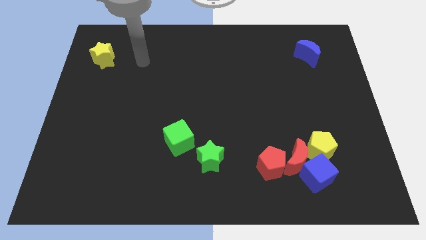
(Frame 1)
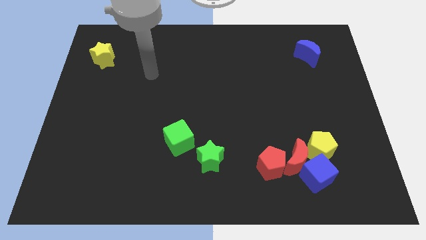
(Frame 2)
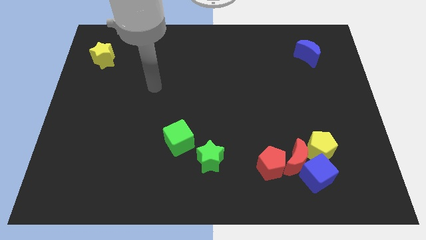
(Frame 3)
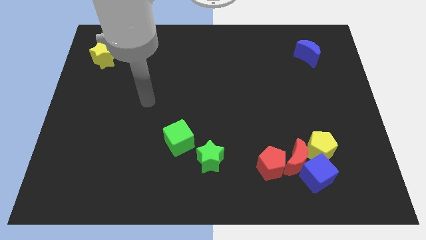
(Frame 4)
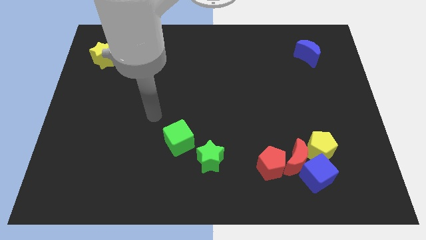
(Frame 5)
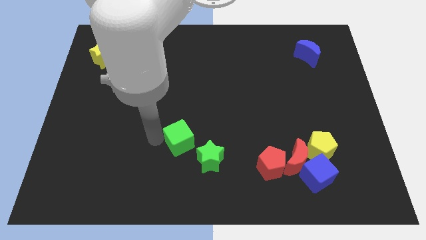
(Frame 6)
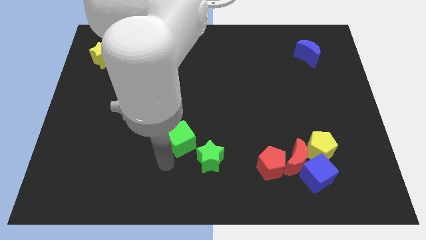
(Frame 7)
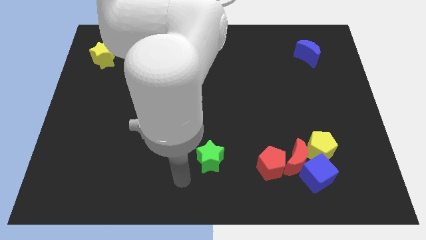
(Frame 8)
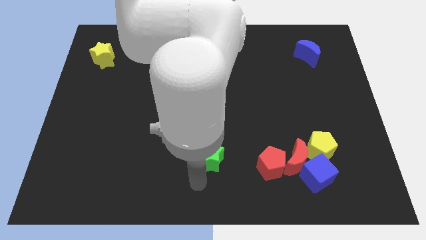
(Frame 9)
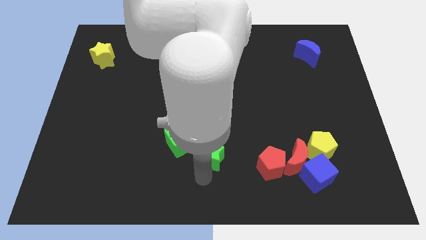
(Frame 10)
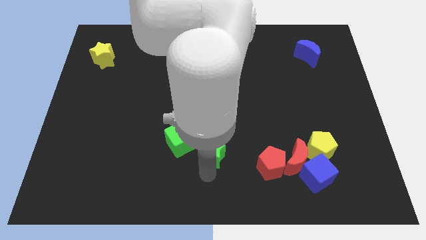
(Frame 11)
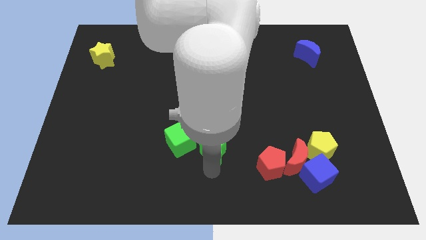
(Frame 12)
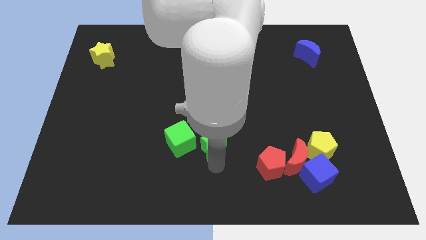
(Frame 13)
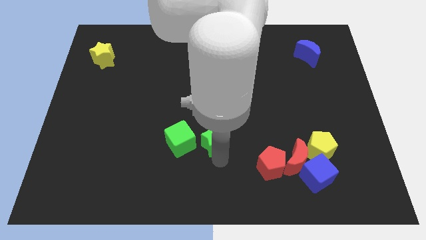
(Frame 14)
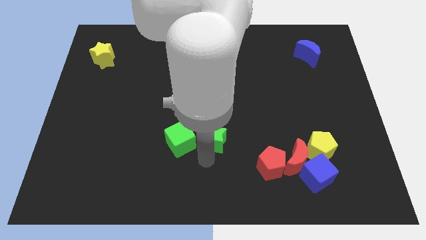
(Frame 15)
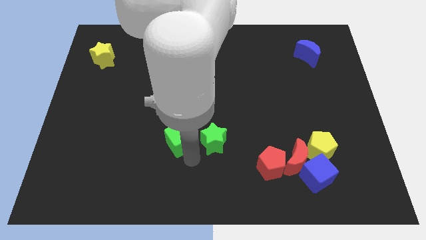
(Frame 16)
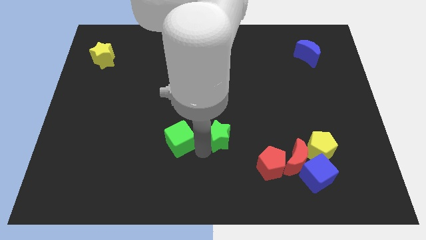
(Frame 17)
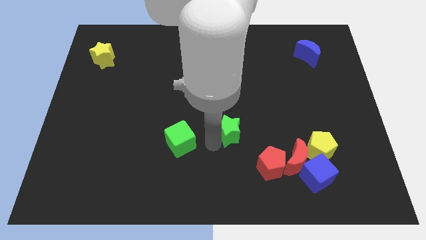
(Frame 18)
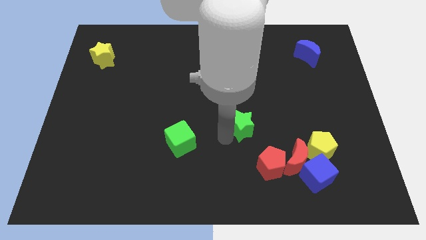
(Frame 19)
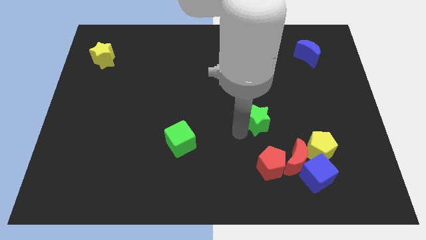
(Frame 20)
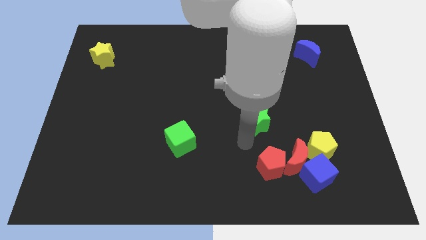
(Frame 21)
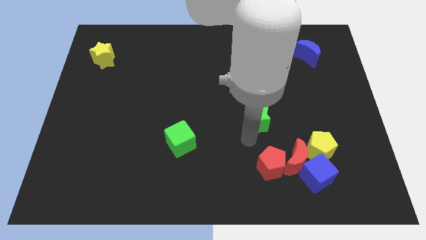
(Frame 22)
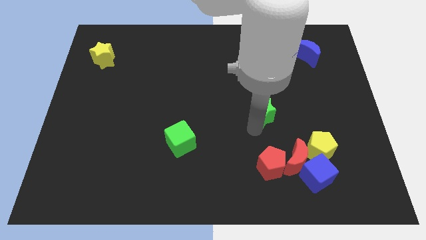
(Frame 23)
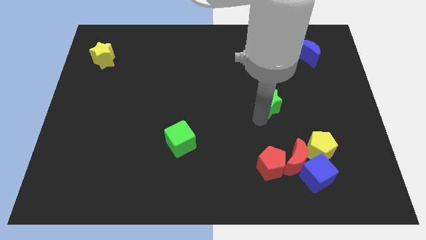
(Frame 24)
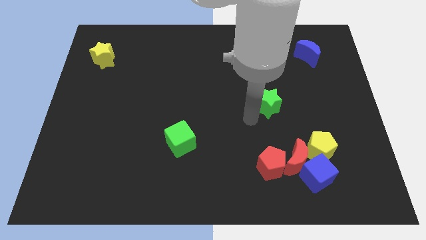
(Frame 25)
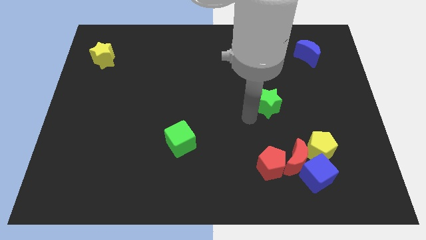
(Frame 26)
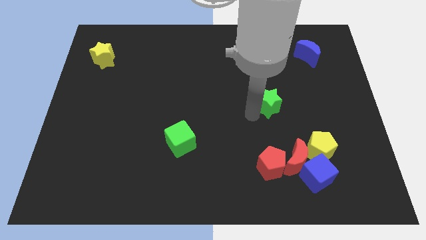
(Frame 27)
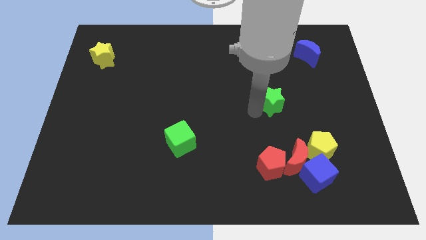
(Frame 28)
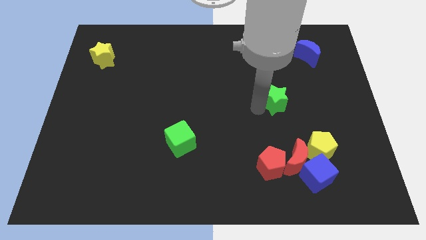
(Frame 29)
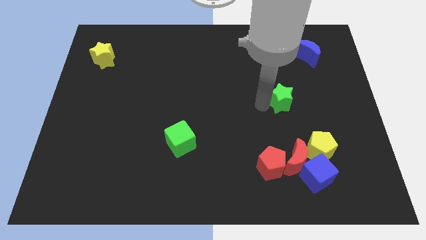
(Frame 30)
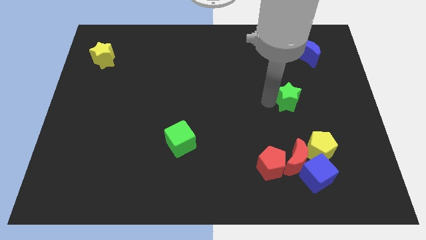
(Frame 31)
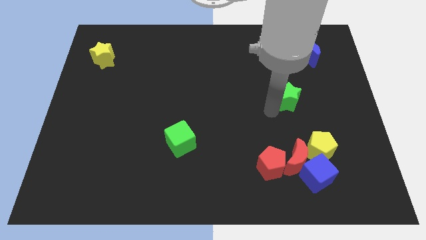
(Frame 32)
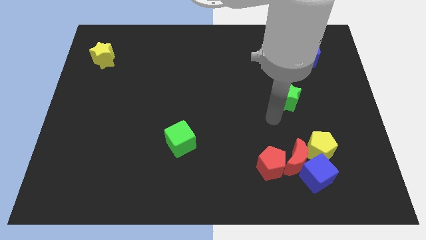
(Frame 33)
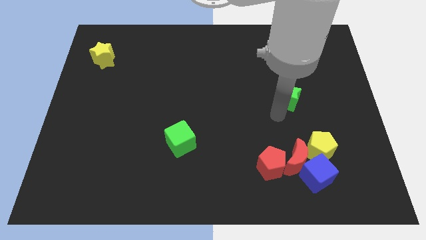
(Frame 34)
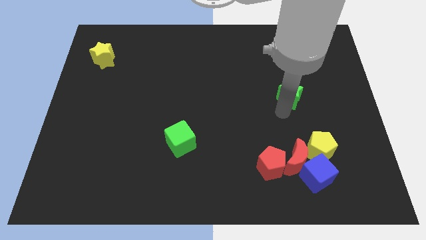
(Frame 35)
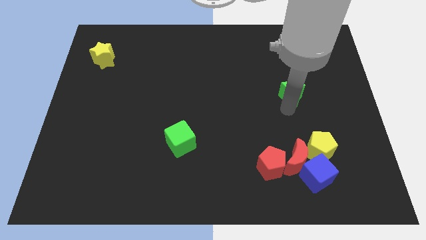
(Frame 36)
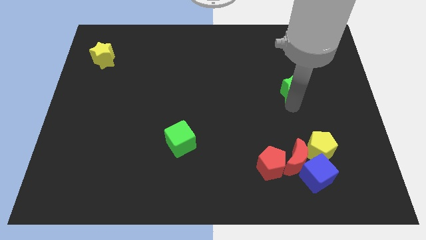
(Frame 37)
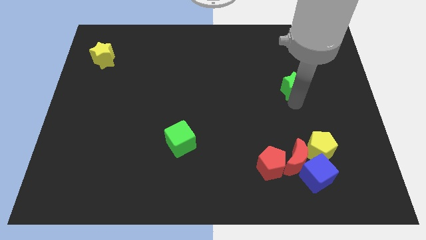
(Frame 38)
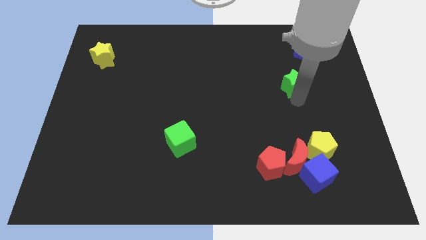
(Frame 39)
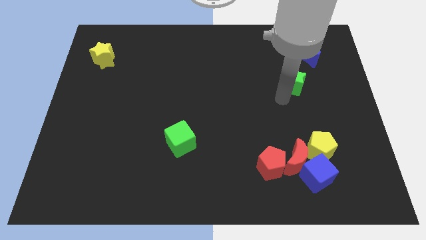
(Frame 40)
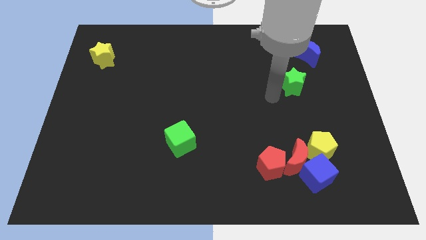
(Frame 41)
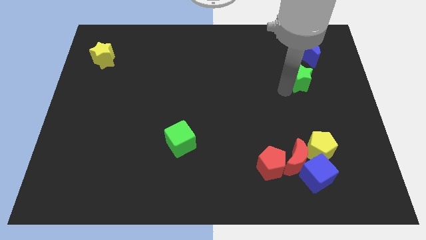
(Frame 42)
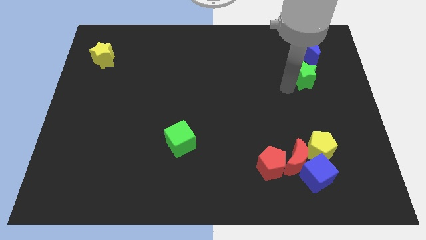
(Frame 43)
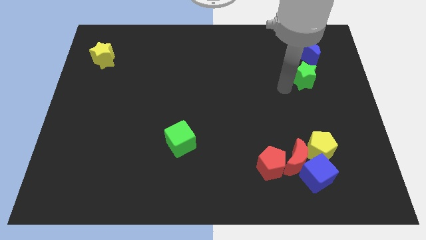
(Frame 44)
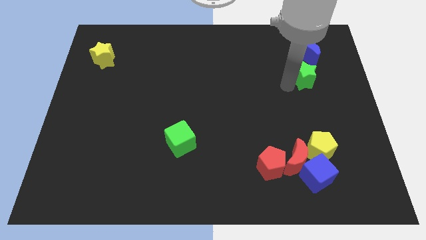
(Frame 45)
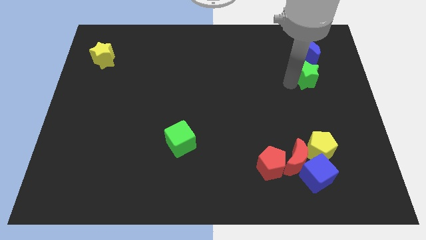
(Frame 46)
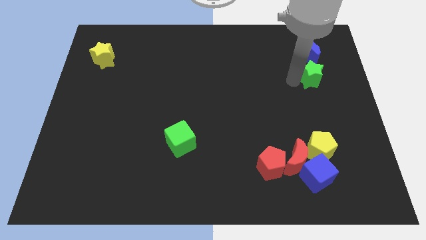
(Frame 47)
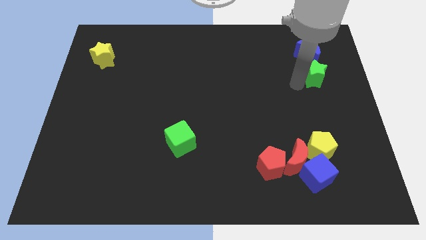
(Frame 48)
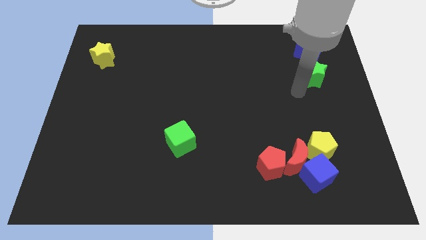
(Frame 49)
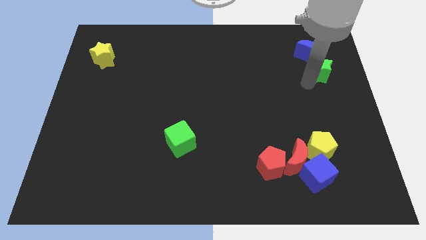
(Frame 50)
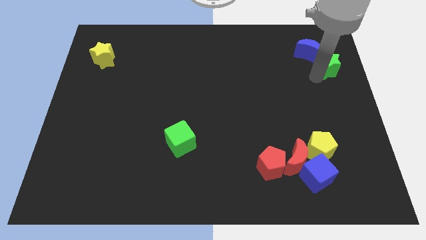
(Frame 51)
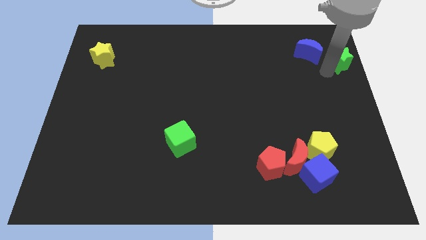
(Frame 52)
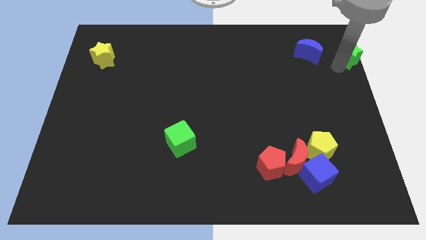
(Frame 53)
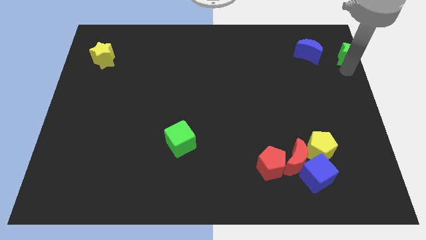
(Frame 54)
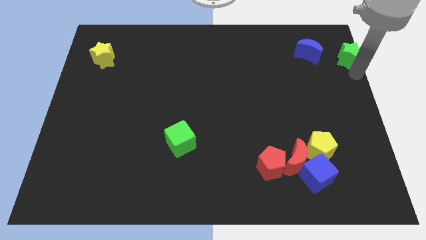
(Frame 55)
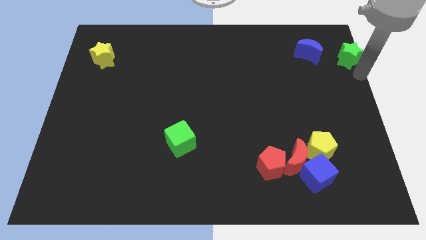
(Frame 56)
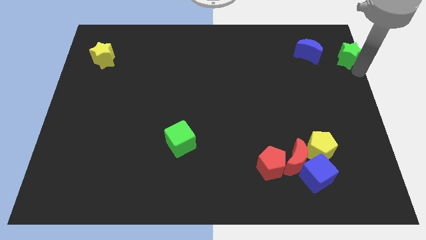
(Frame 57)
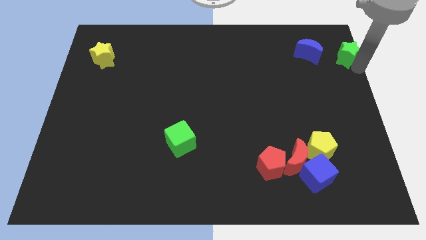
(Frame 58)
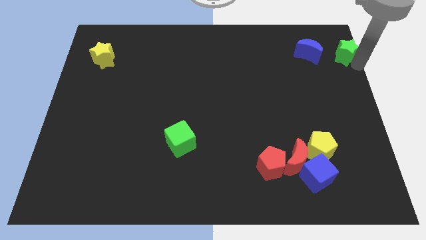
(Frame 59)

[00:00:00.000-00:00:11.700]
put the green star to the top right of the board
